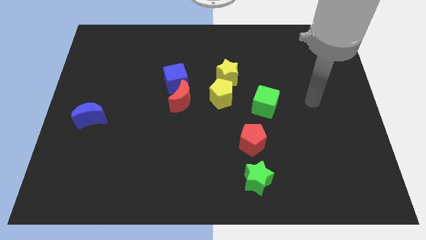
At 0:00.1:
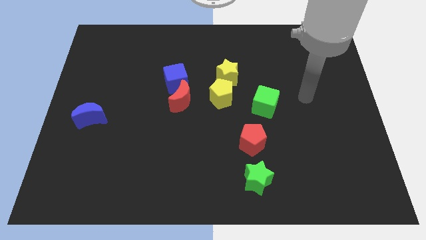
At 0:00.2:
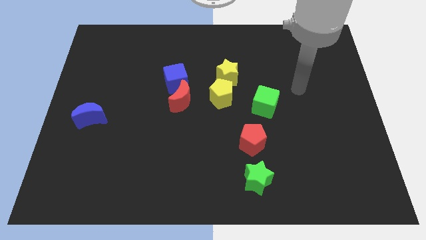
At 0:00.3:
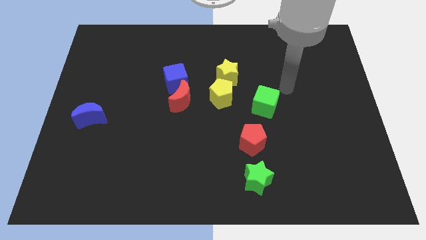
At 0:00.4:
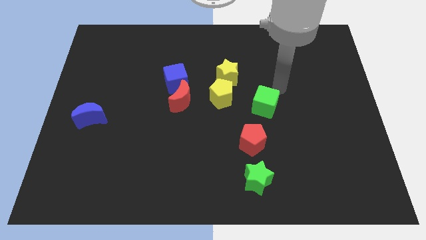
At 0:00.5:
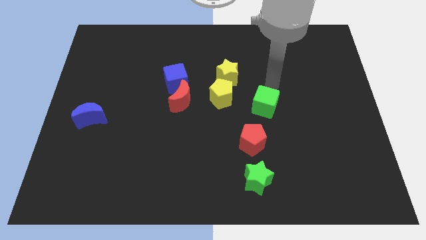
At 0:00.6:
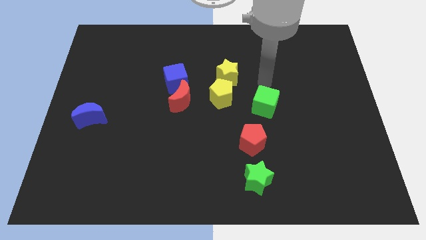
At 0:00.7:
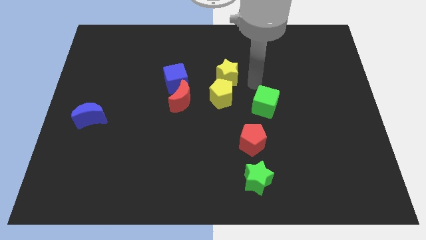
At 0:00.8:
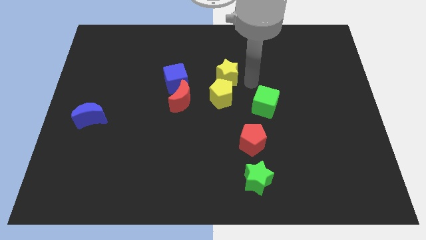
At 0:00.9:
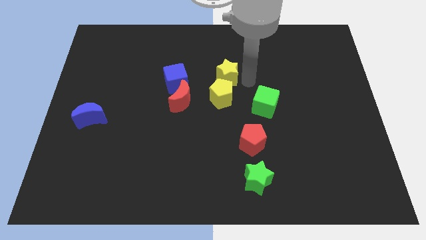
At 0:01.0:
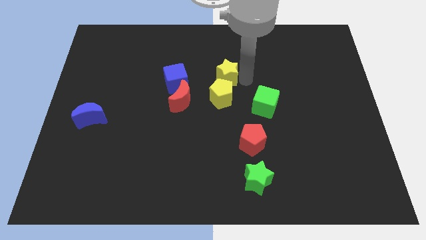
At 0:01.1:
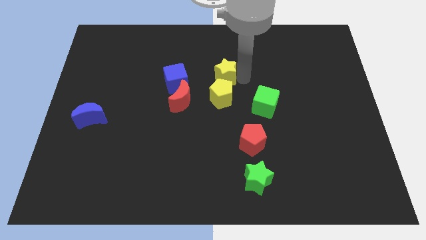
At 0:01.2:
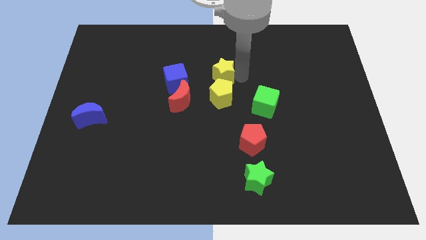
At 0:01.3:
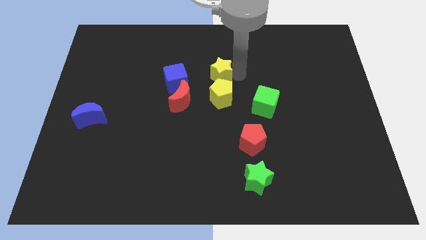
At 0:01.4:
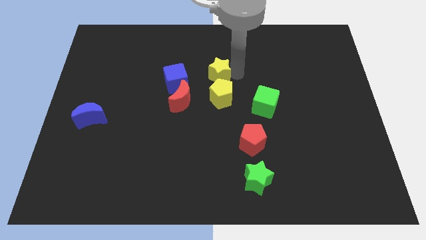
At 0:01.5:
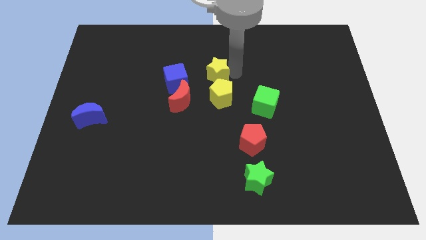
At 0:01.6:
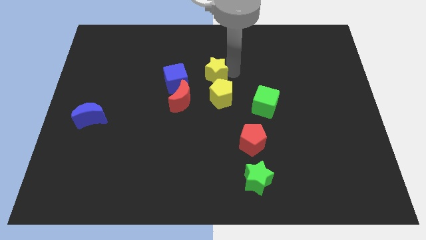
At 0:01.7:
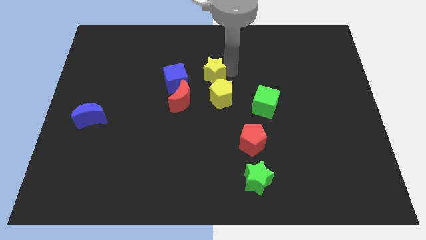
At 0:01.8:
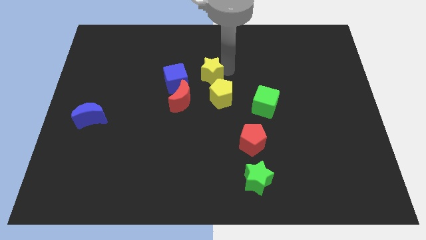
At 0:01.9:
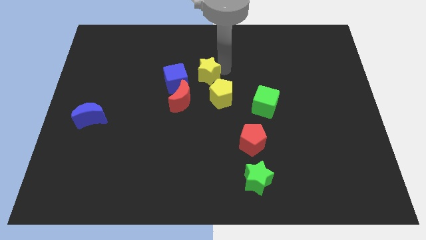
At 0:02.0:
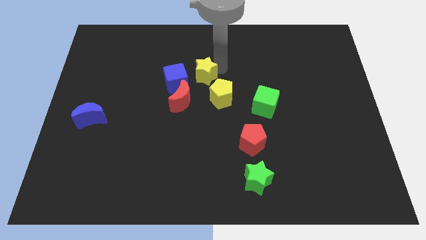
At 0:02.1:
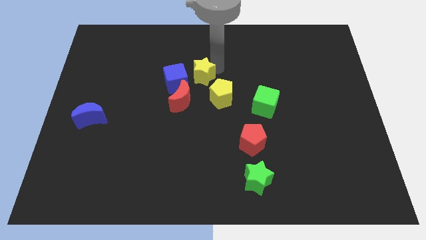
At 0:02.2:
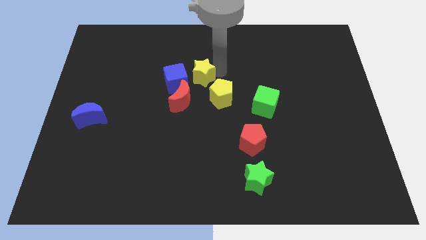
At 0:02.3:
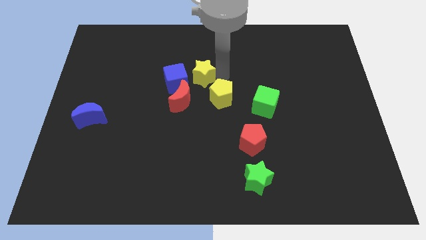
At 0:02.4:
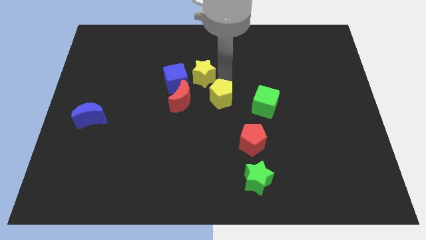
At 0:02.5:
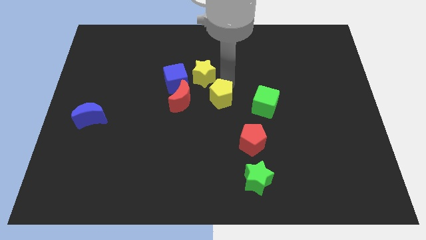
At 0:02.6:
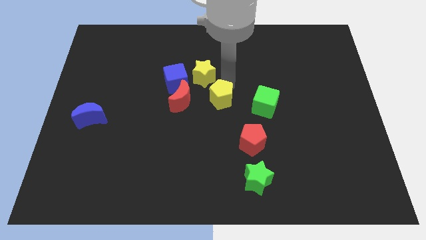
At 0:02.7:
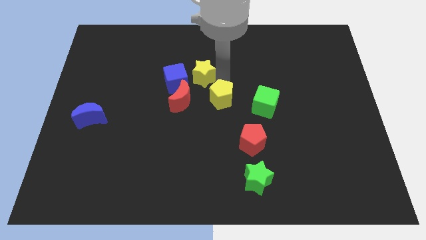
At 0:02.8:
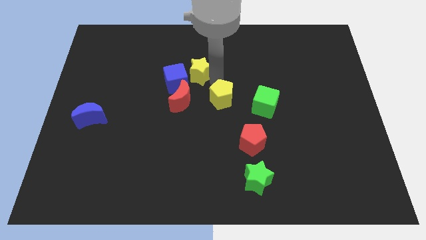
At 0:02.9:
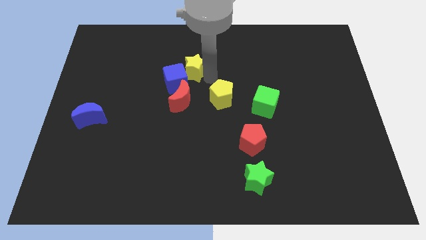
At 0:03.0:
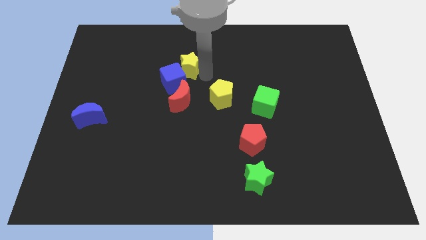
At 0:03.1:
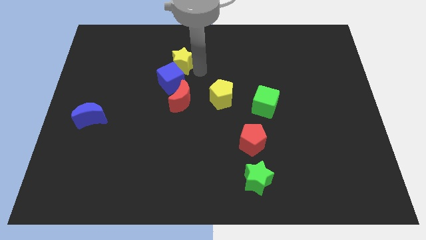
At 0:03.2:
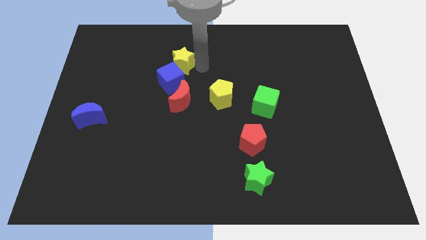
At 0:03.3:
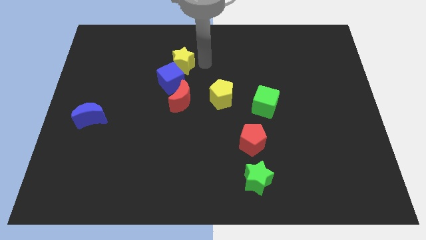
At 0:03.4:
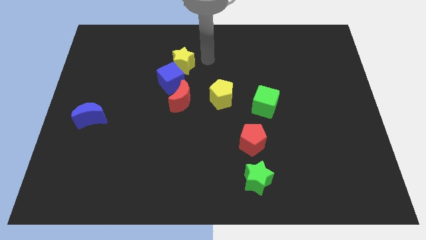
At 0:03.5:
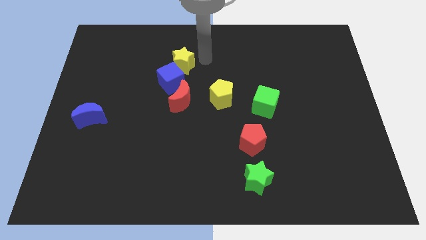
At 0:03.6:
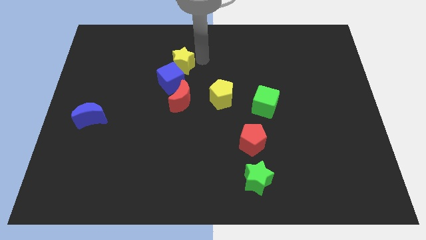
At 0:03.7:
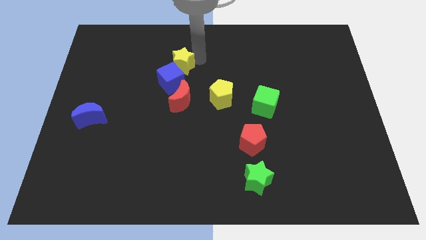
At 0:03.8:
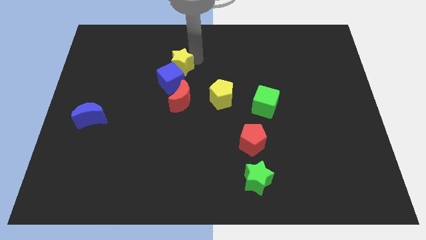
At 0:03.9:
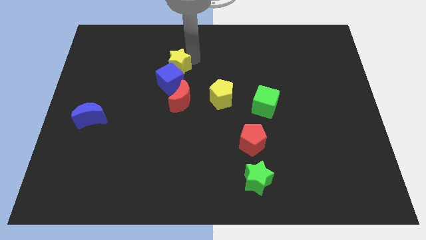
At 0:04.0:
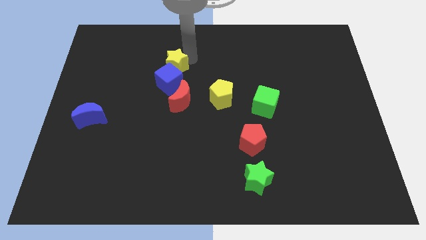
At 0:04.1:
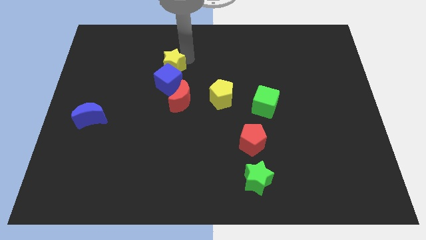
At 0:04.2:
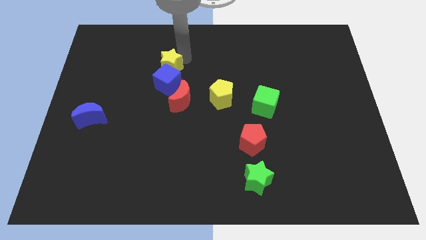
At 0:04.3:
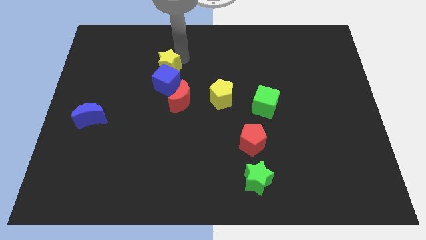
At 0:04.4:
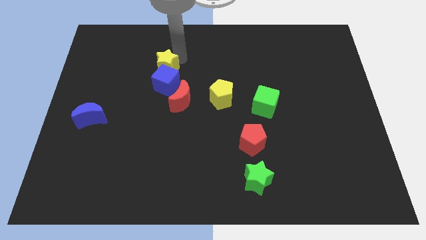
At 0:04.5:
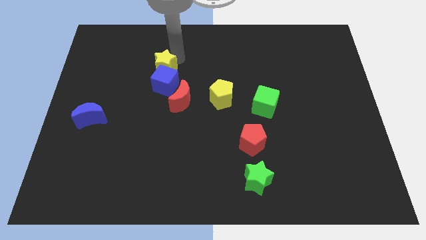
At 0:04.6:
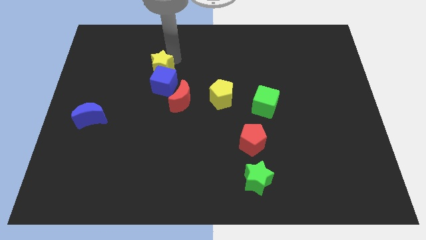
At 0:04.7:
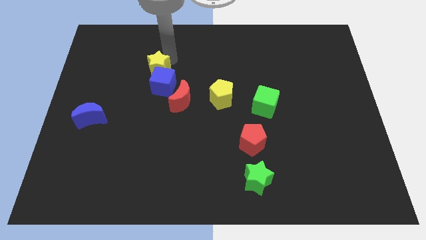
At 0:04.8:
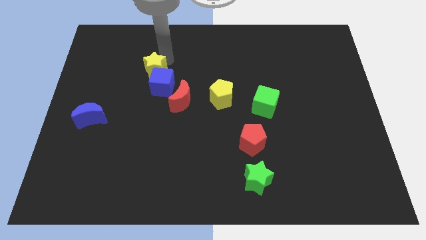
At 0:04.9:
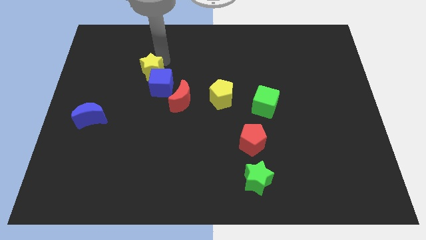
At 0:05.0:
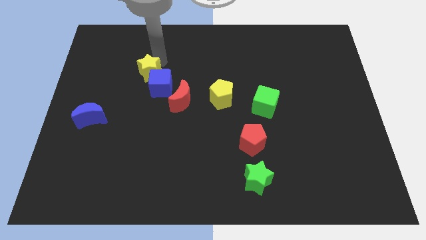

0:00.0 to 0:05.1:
push the yellow star to the left

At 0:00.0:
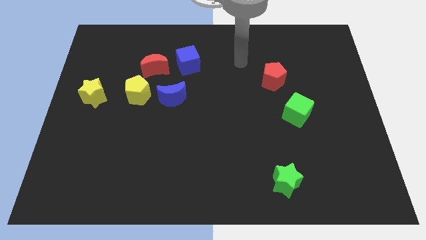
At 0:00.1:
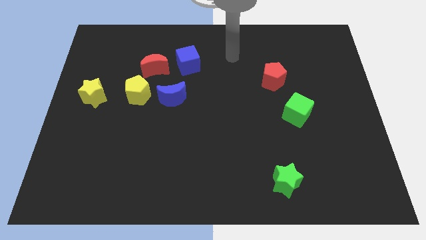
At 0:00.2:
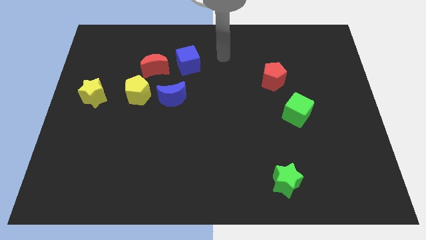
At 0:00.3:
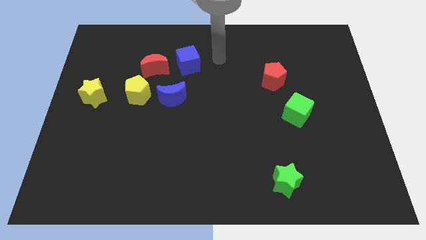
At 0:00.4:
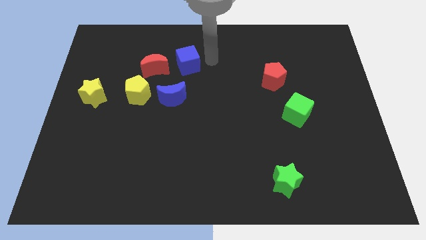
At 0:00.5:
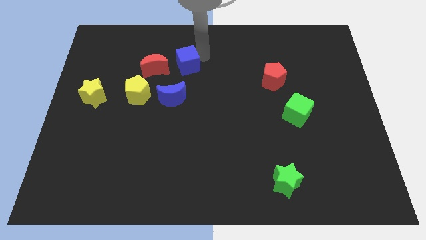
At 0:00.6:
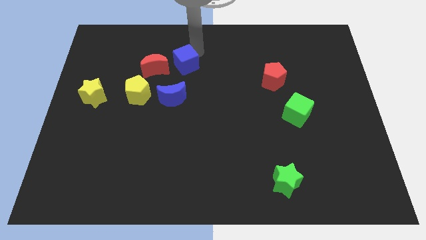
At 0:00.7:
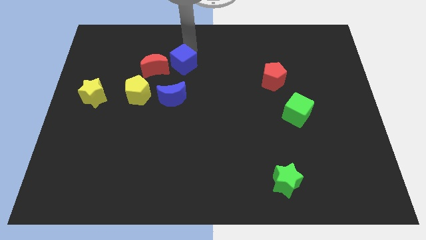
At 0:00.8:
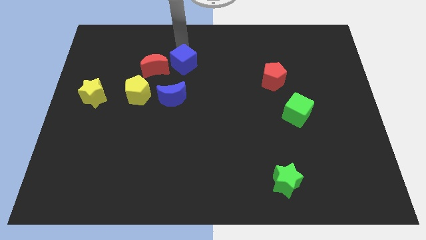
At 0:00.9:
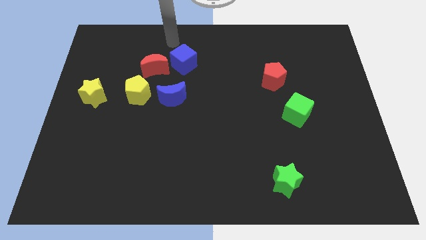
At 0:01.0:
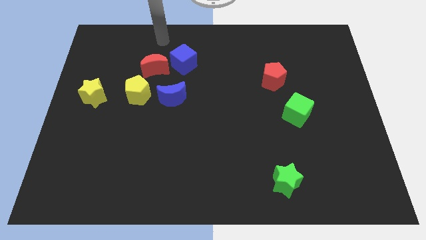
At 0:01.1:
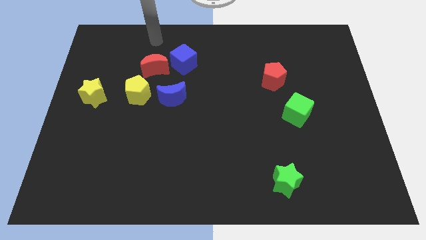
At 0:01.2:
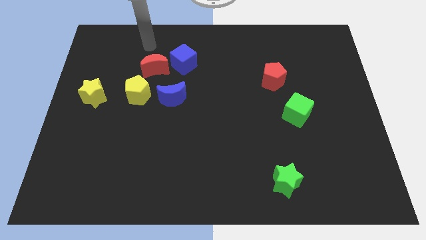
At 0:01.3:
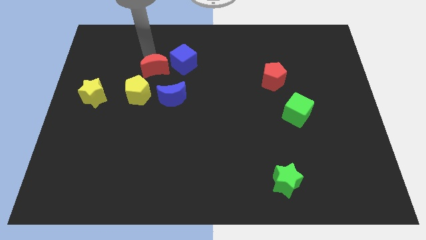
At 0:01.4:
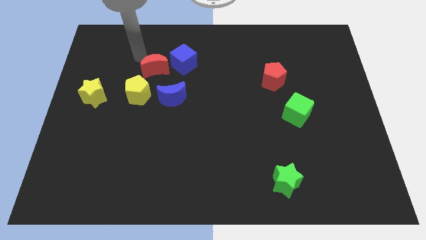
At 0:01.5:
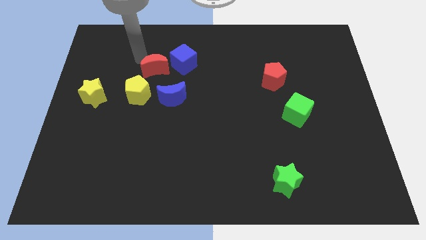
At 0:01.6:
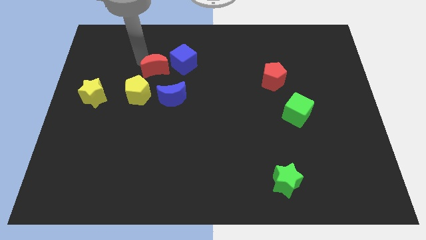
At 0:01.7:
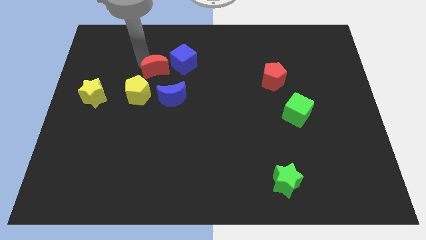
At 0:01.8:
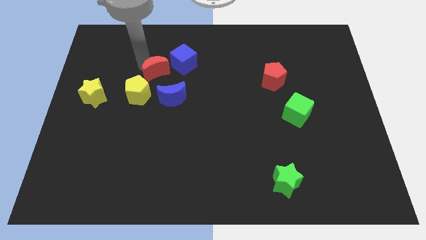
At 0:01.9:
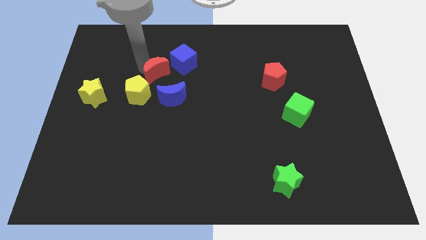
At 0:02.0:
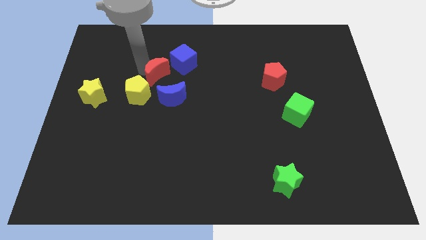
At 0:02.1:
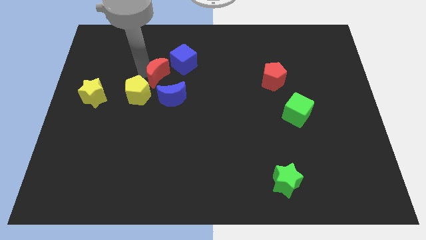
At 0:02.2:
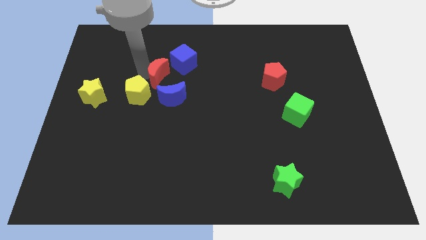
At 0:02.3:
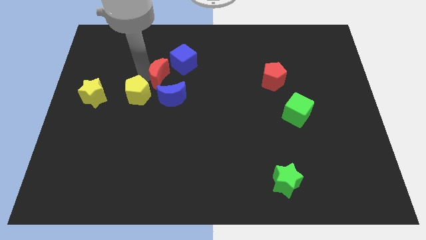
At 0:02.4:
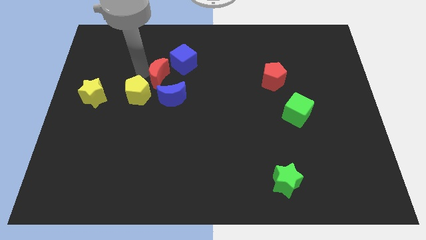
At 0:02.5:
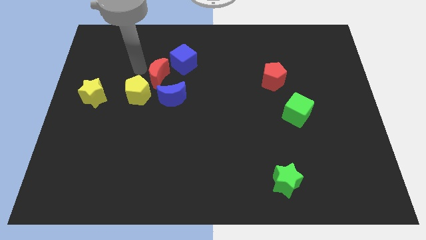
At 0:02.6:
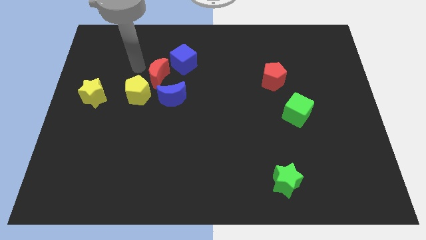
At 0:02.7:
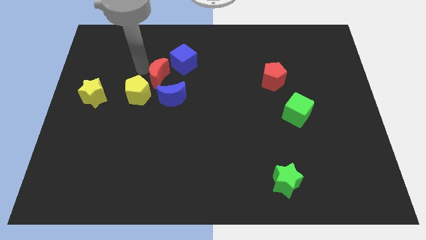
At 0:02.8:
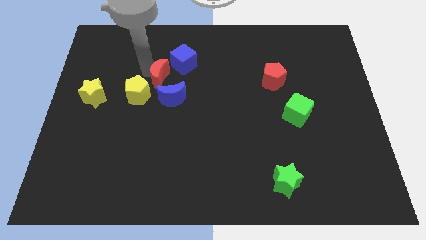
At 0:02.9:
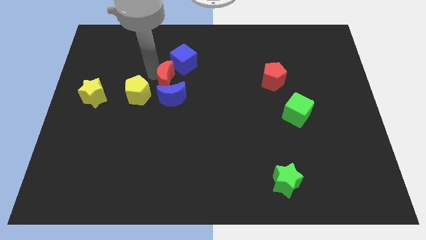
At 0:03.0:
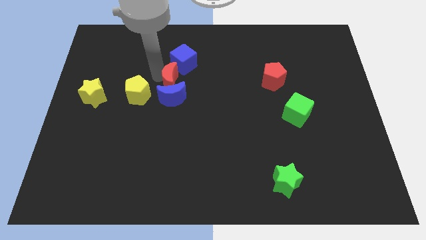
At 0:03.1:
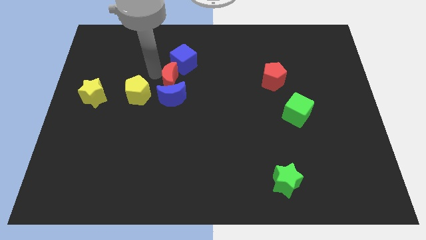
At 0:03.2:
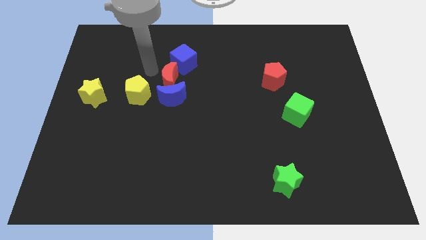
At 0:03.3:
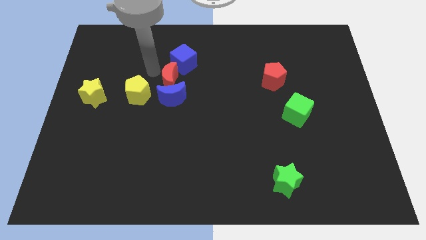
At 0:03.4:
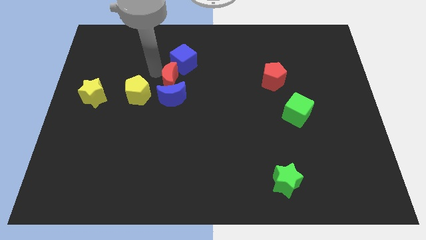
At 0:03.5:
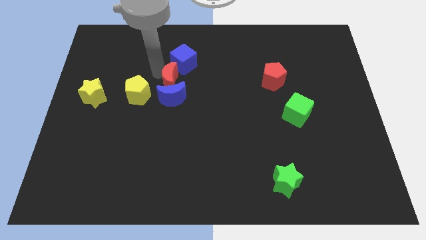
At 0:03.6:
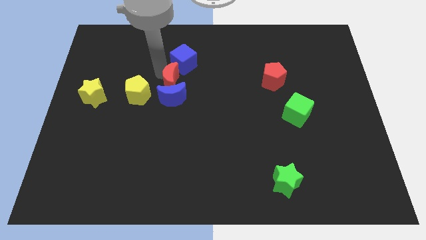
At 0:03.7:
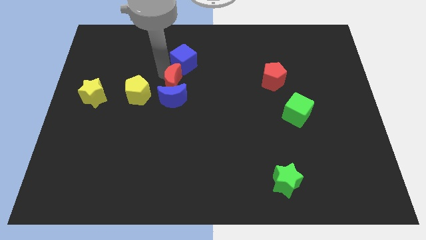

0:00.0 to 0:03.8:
slightly slide the red moon diagonally downwards and right
